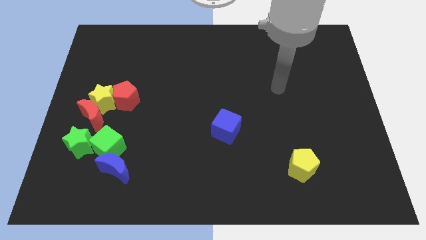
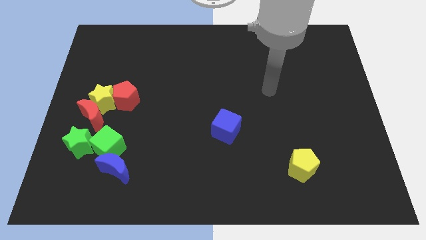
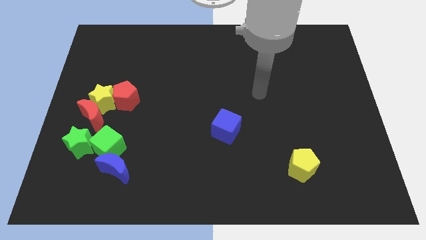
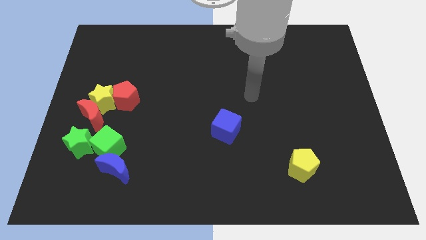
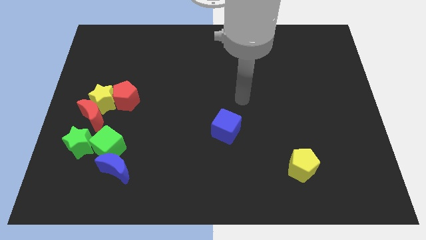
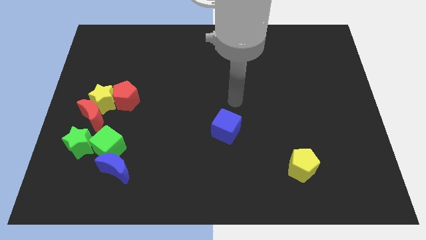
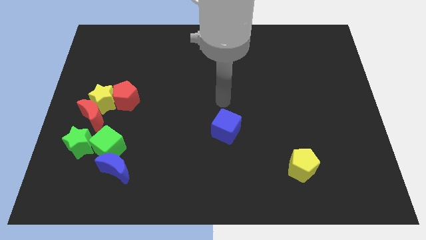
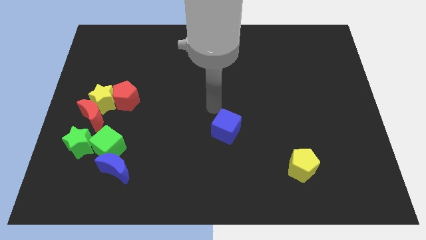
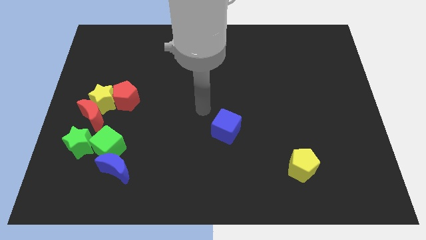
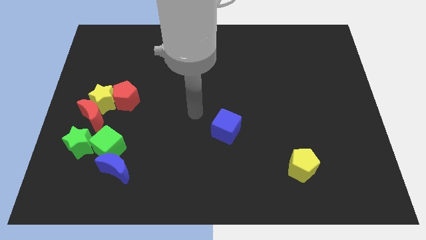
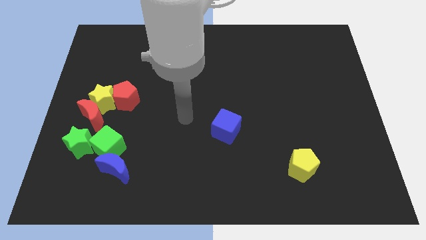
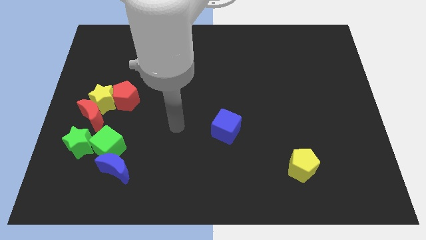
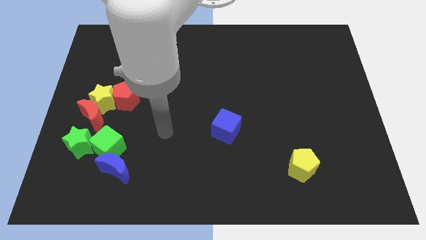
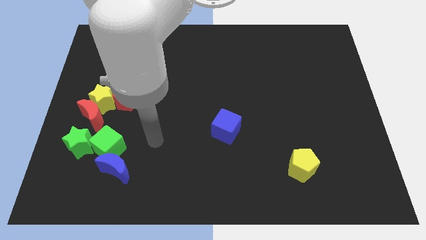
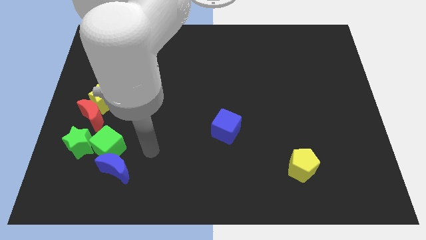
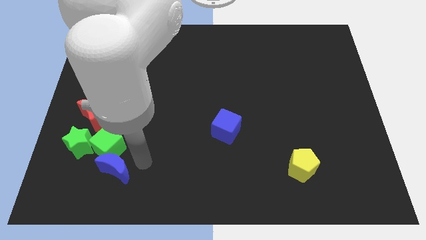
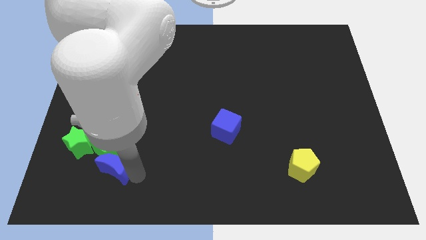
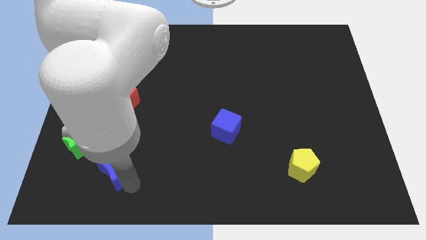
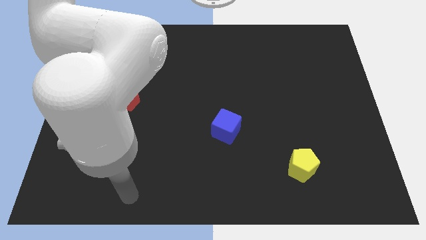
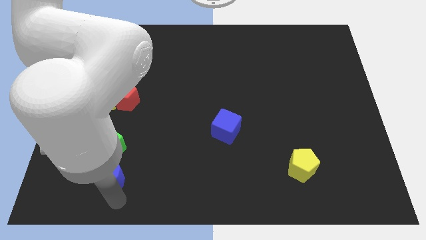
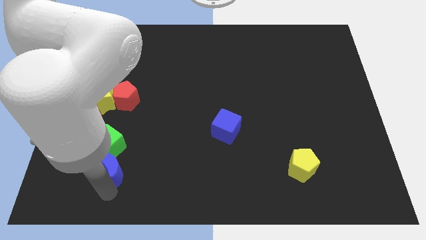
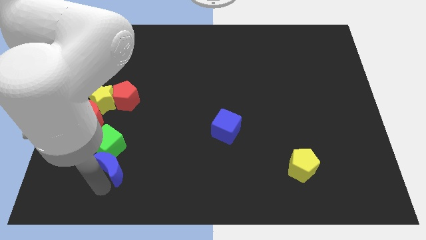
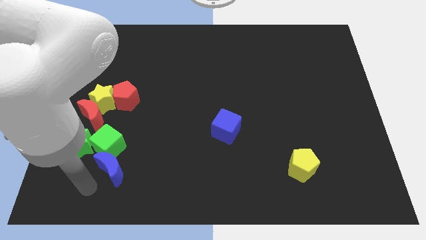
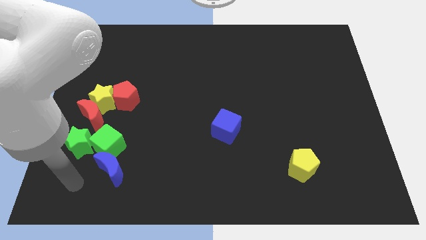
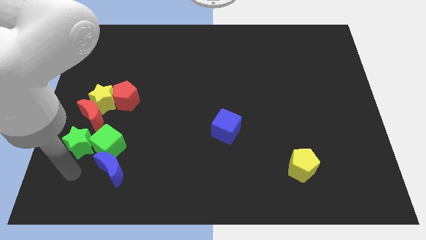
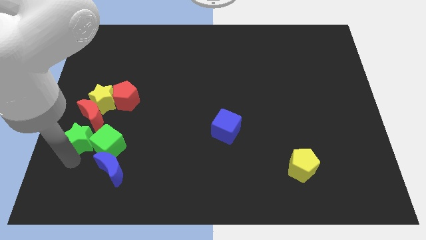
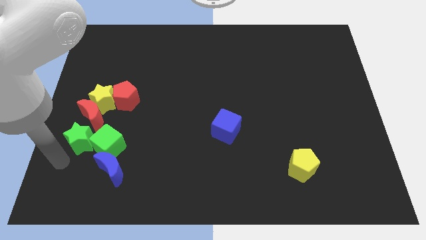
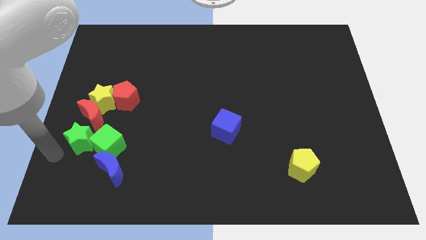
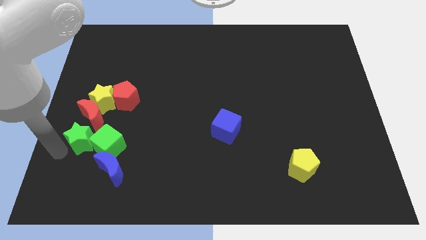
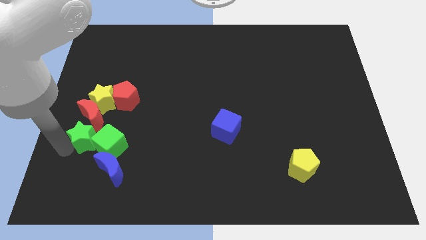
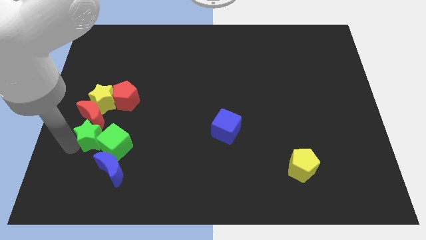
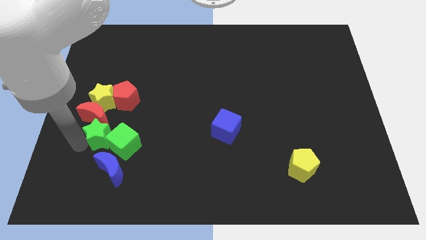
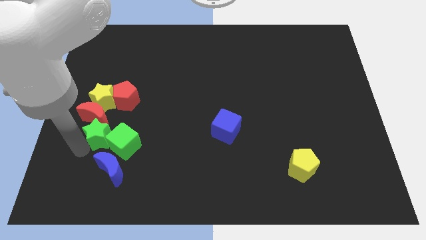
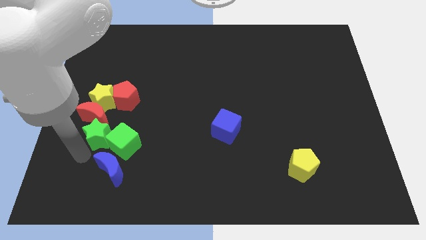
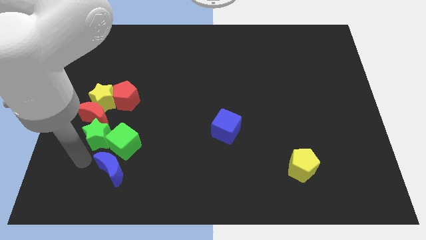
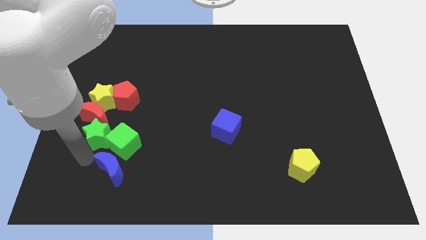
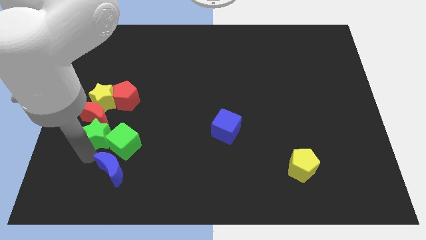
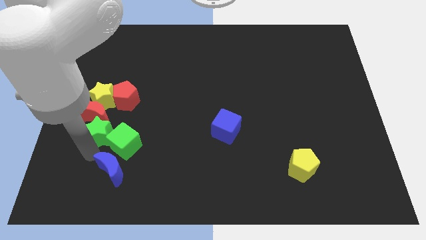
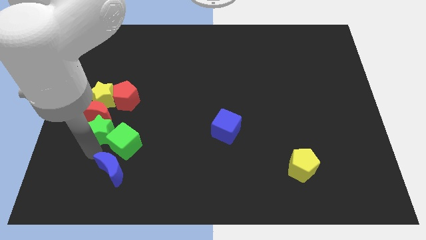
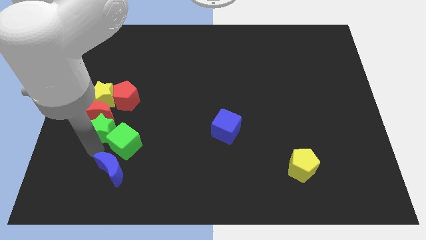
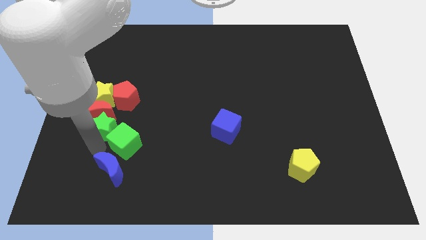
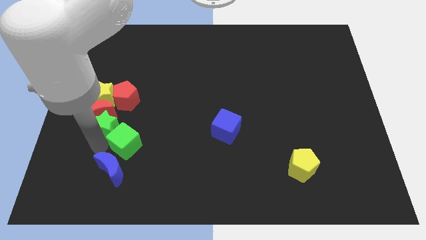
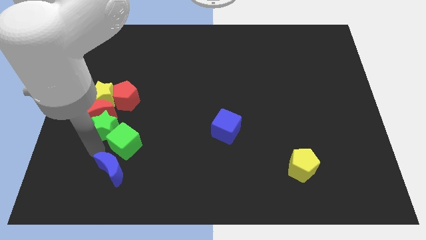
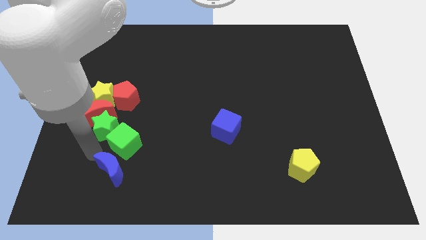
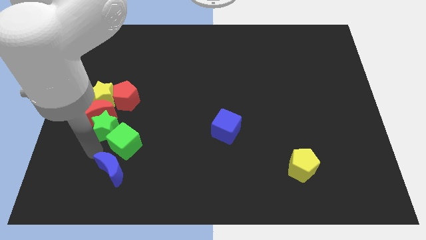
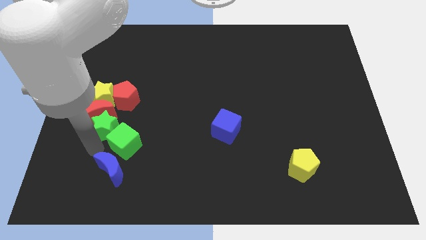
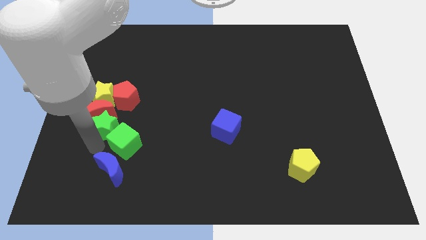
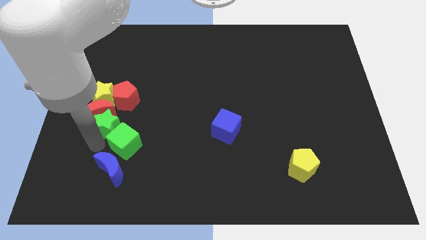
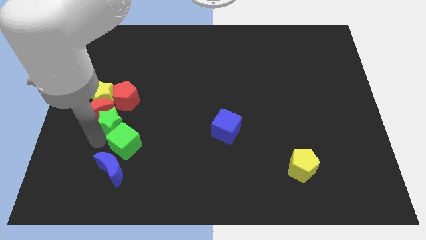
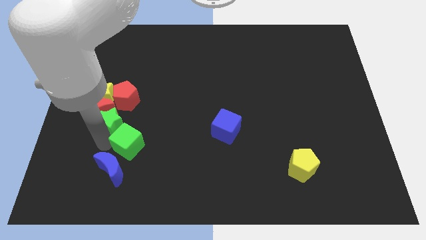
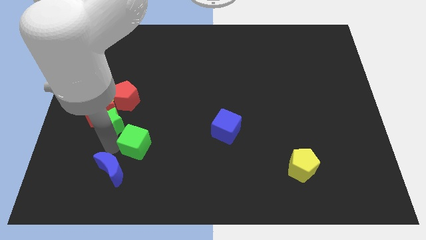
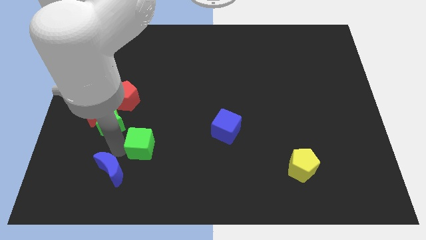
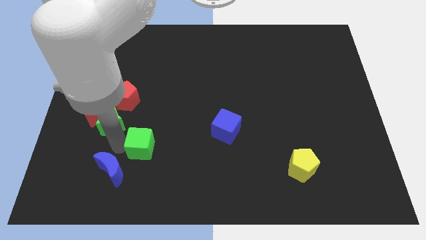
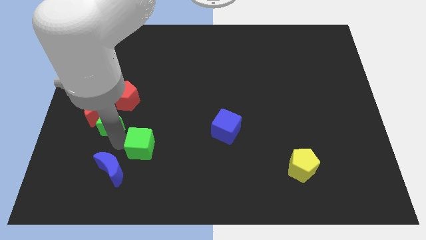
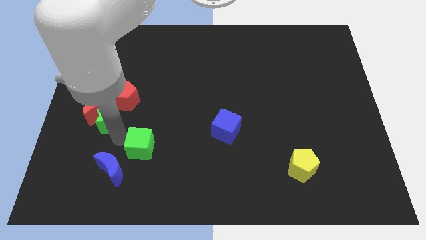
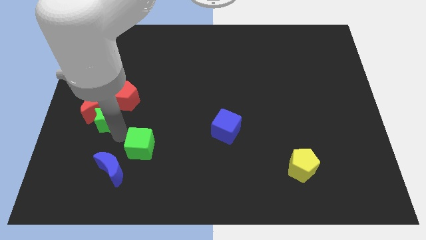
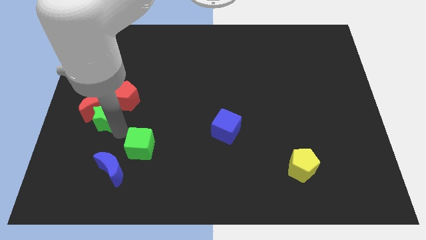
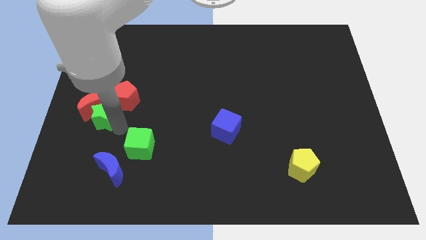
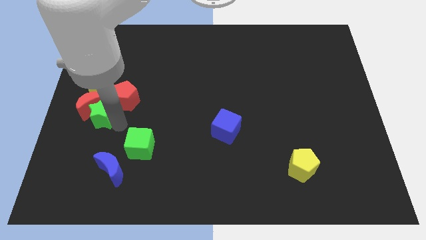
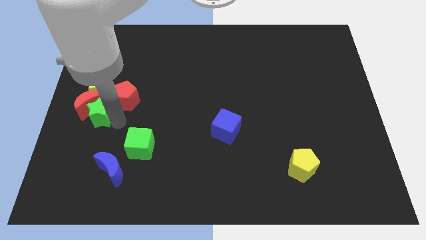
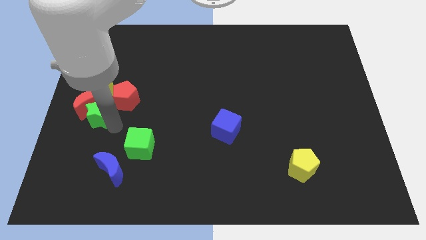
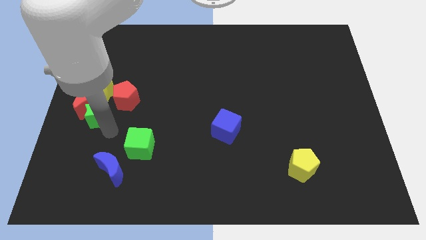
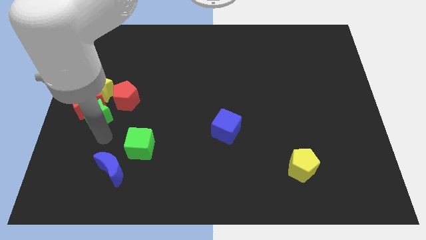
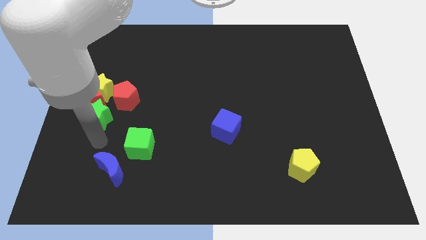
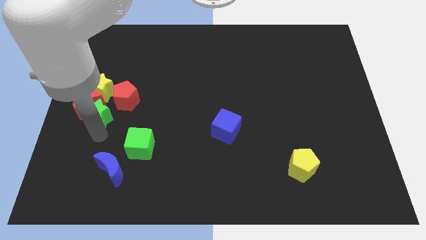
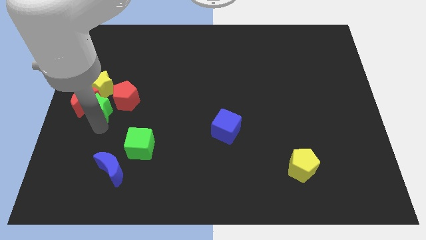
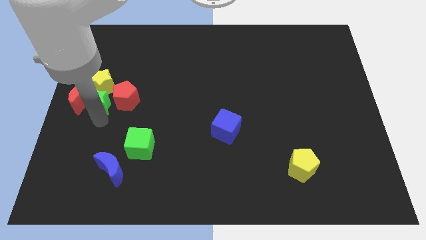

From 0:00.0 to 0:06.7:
push the green star close to the yellow star

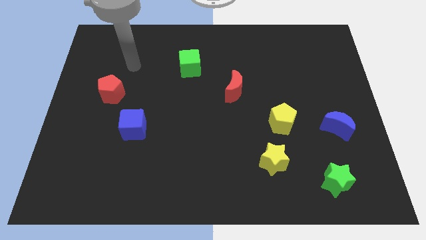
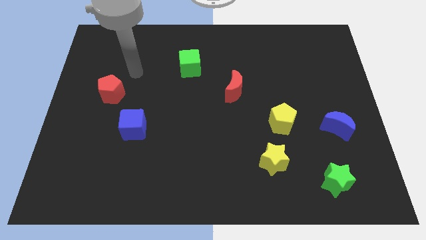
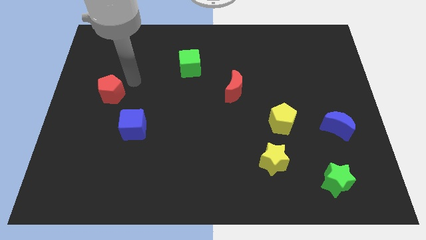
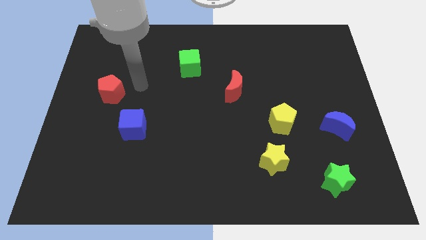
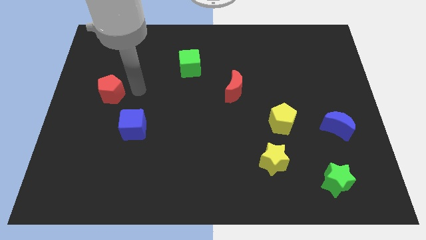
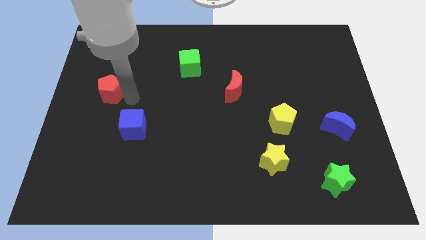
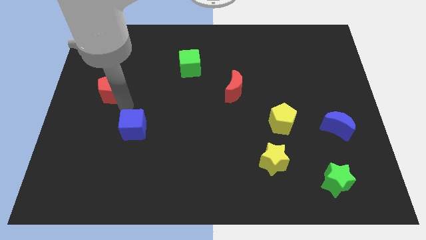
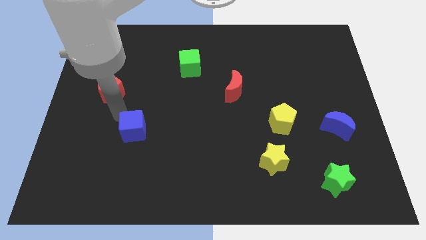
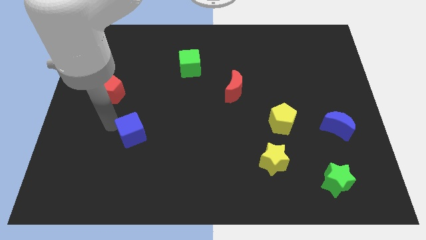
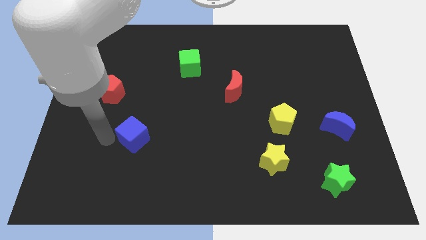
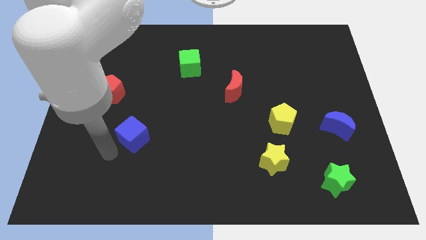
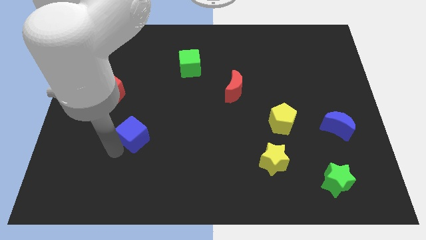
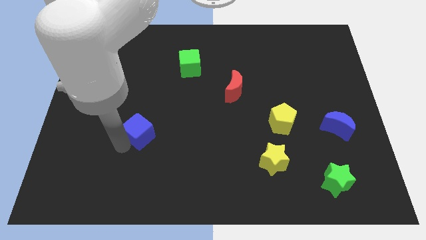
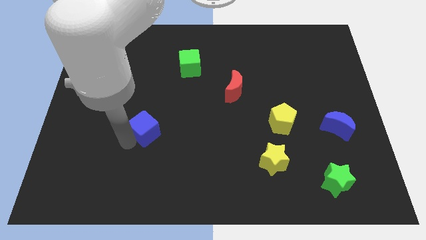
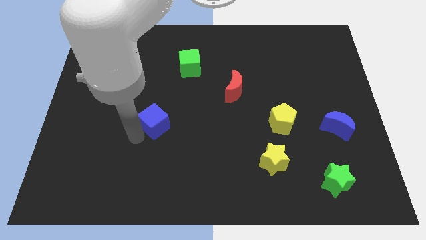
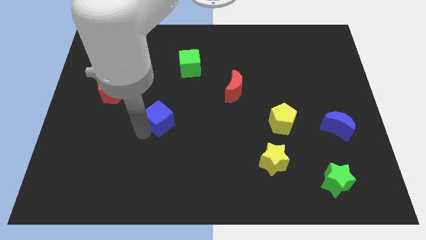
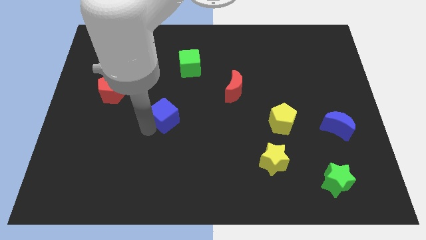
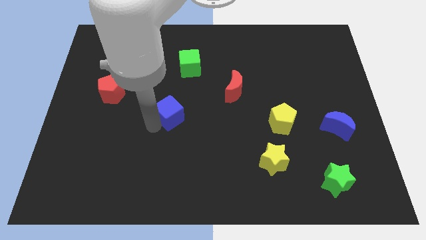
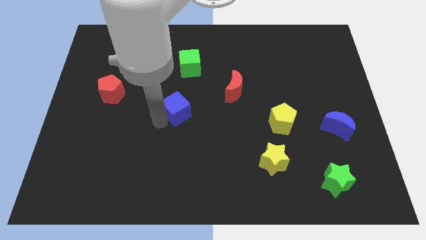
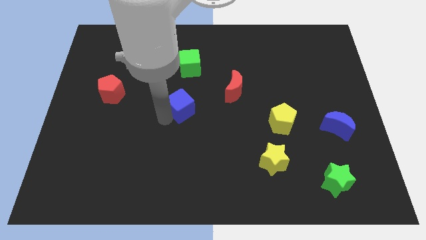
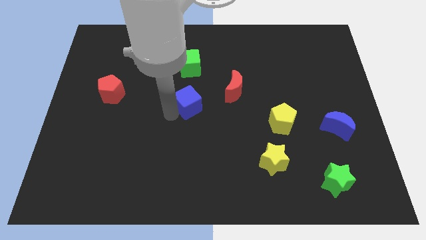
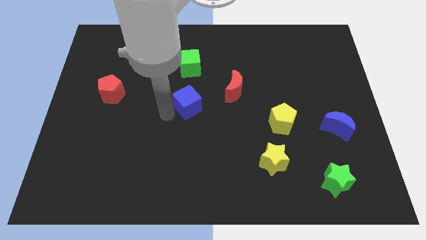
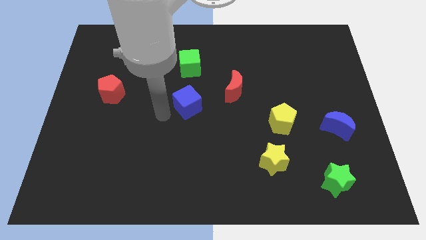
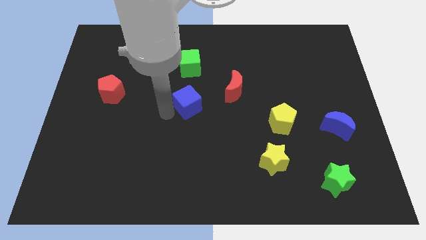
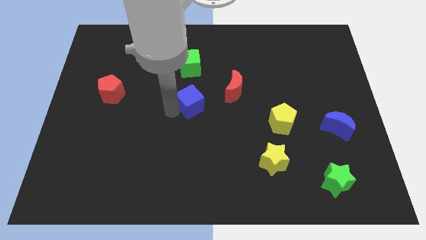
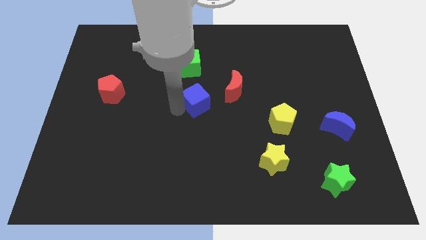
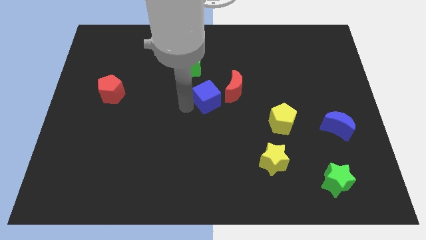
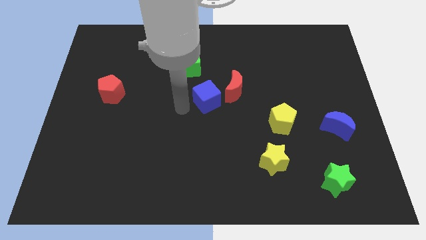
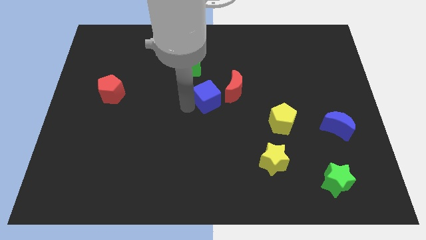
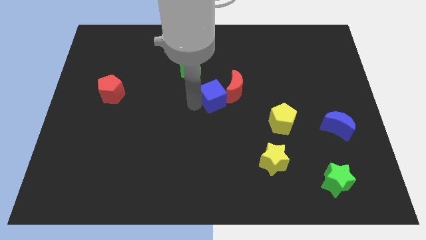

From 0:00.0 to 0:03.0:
slide the blue cube close to the red moon
